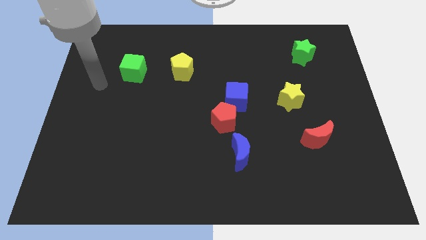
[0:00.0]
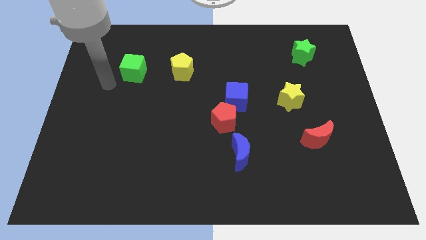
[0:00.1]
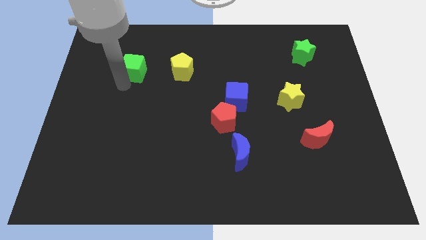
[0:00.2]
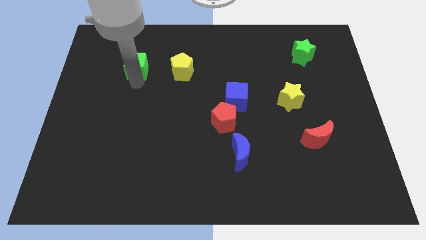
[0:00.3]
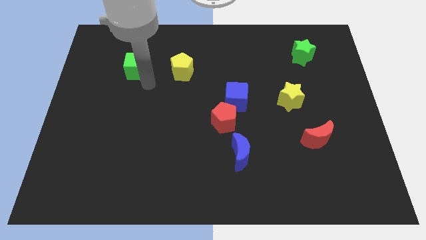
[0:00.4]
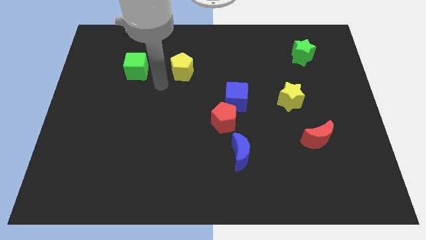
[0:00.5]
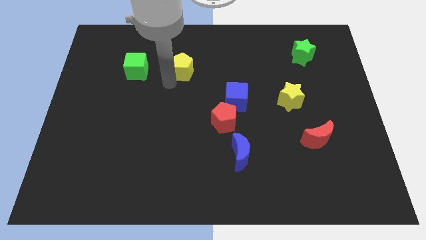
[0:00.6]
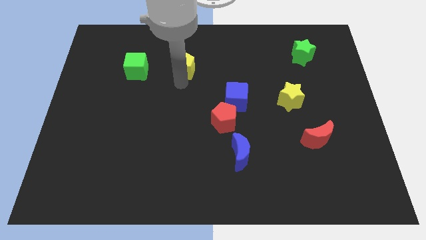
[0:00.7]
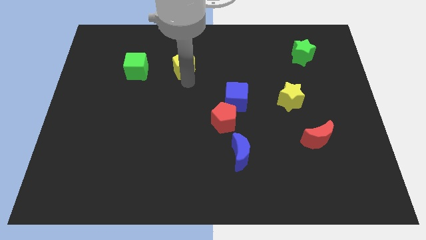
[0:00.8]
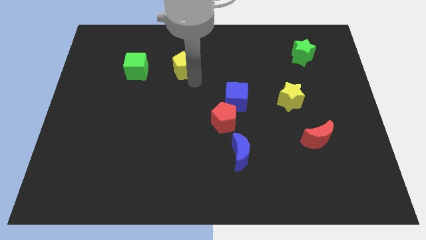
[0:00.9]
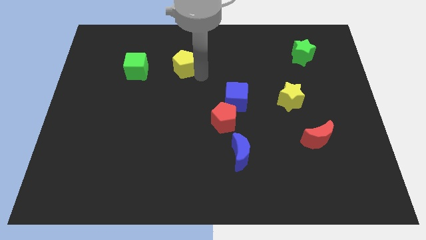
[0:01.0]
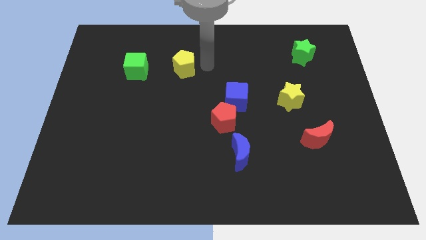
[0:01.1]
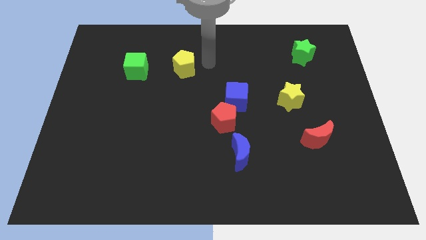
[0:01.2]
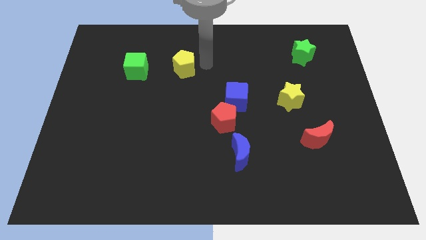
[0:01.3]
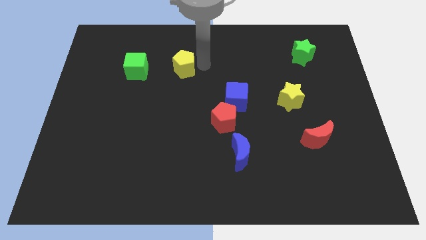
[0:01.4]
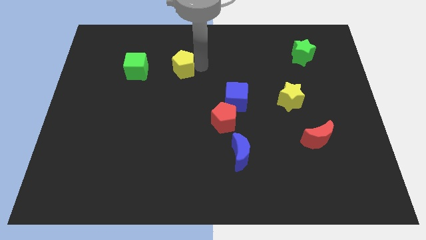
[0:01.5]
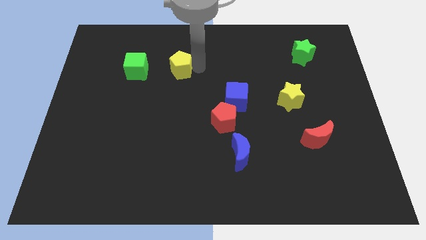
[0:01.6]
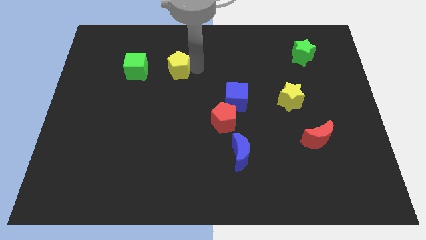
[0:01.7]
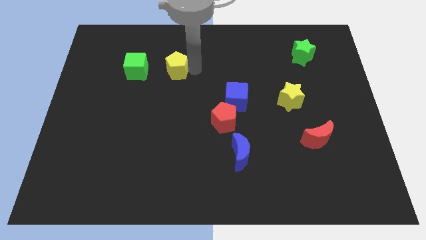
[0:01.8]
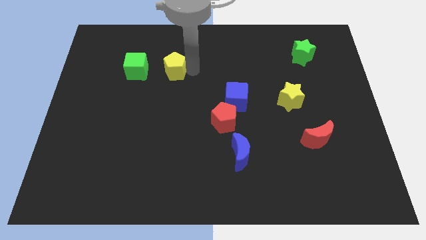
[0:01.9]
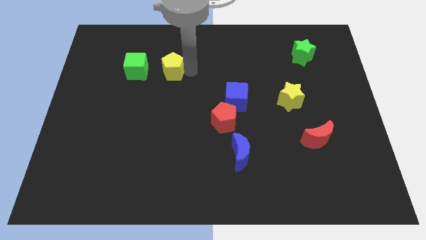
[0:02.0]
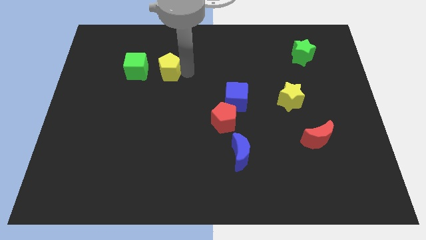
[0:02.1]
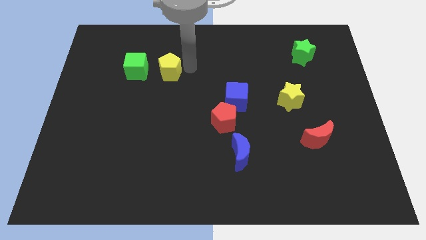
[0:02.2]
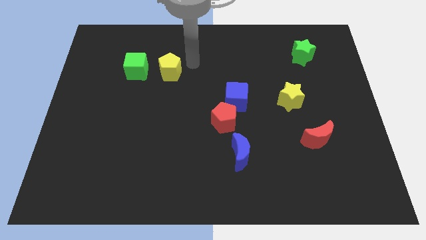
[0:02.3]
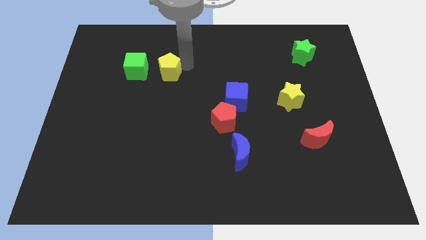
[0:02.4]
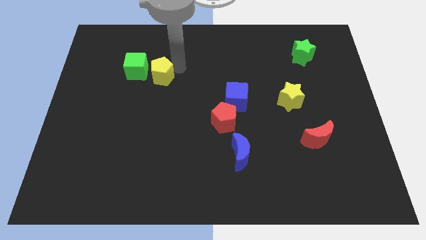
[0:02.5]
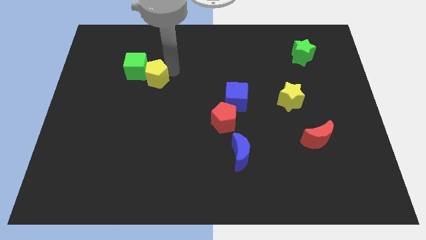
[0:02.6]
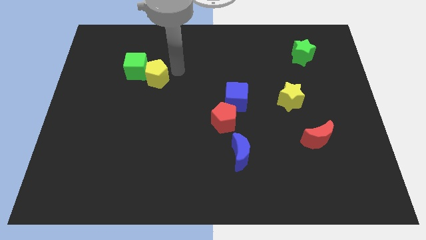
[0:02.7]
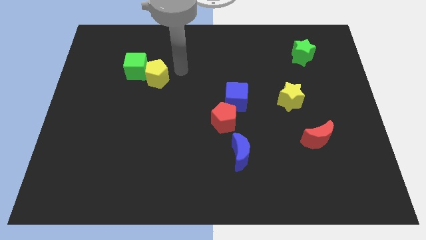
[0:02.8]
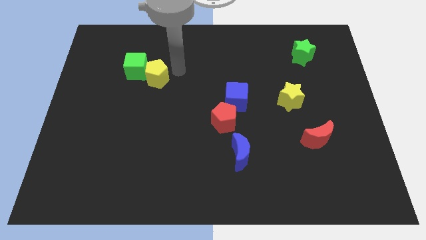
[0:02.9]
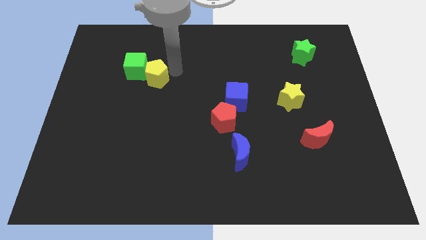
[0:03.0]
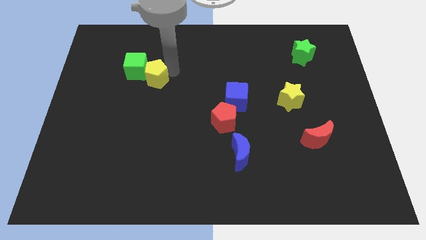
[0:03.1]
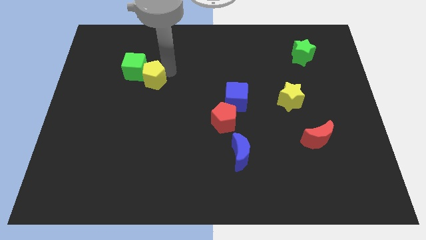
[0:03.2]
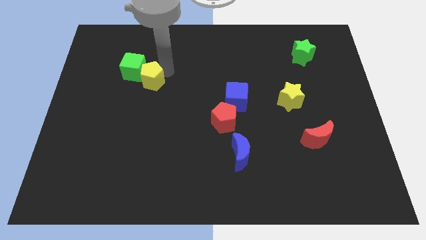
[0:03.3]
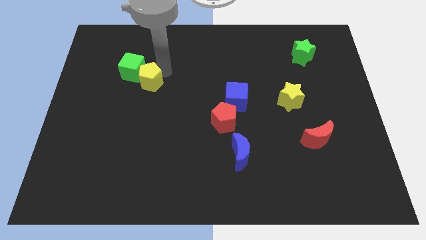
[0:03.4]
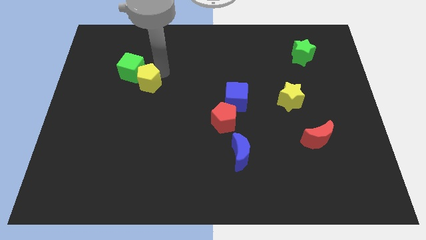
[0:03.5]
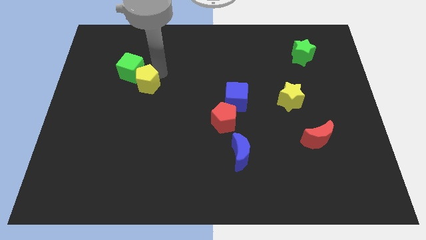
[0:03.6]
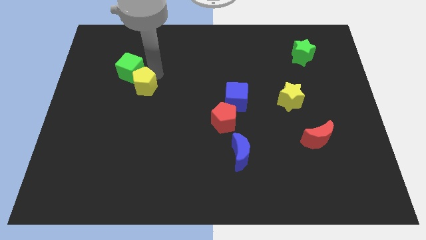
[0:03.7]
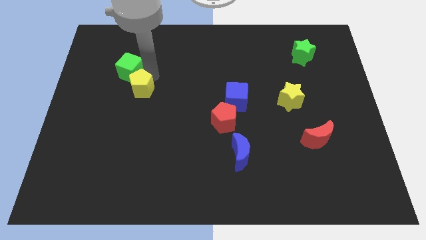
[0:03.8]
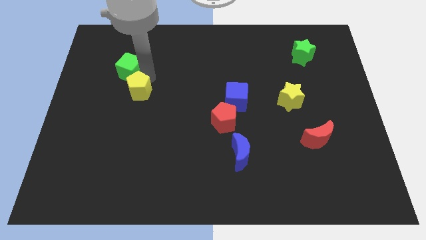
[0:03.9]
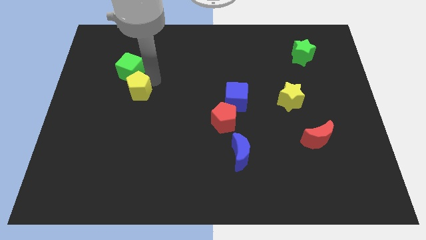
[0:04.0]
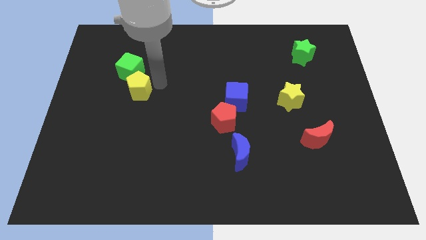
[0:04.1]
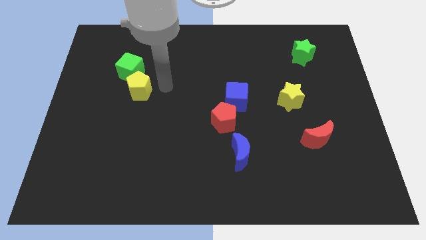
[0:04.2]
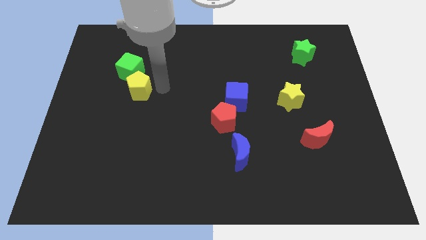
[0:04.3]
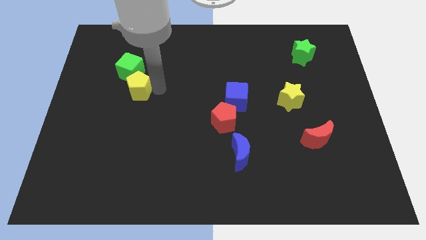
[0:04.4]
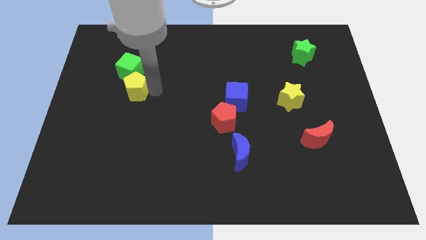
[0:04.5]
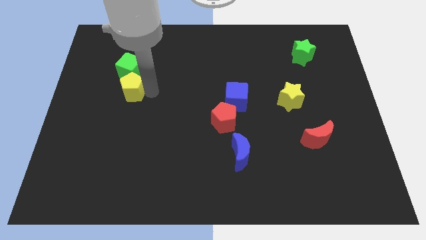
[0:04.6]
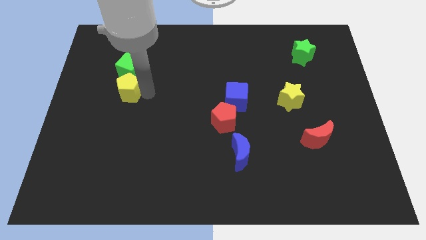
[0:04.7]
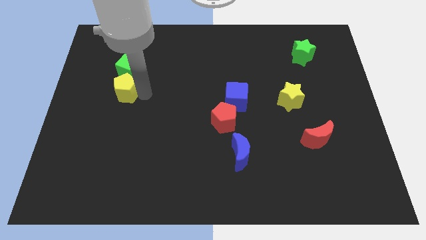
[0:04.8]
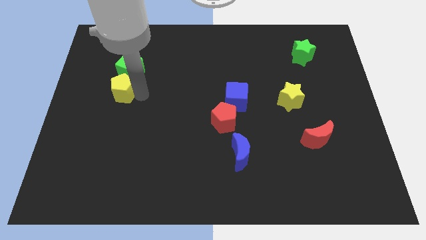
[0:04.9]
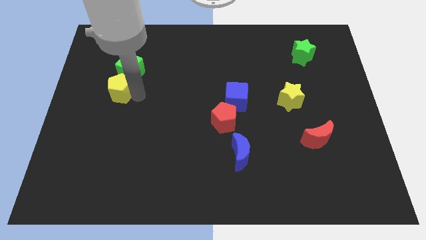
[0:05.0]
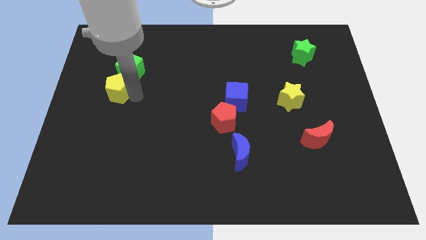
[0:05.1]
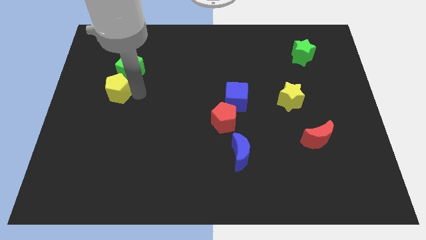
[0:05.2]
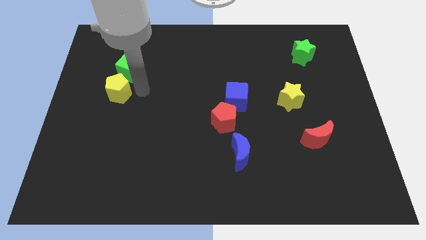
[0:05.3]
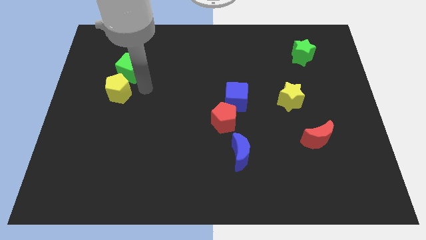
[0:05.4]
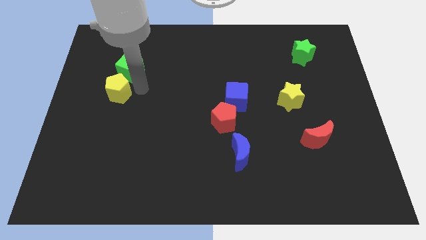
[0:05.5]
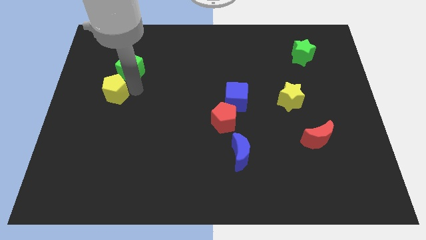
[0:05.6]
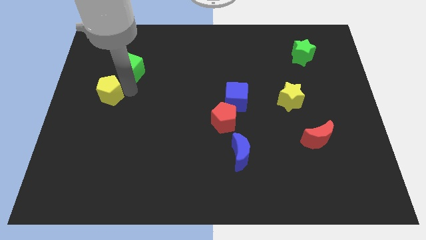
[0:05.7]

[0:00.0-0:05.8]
put the yellow pentagon to the center left
